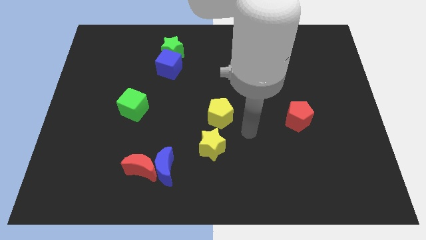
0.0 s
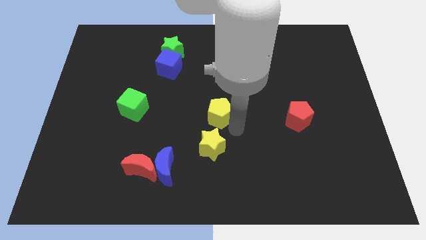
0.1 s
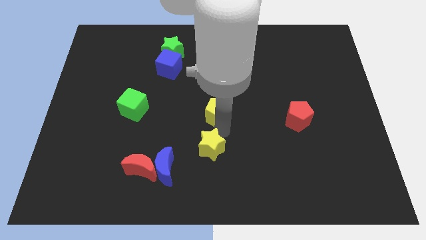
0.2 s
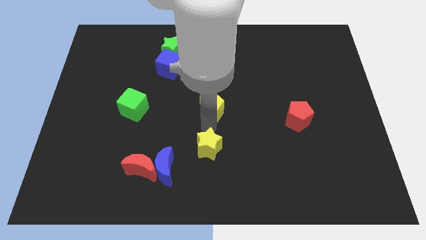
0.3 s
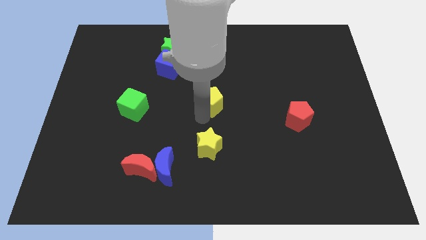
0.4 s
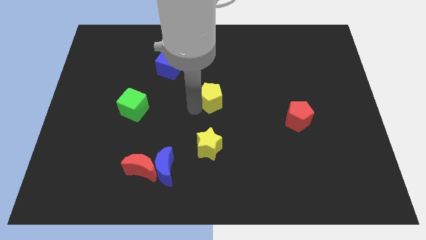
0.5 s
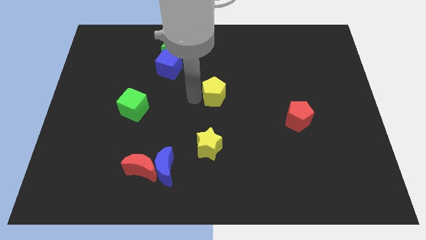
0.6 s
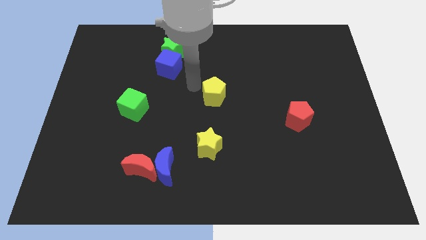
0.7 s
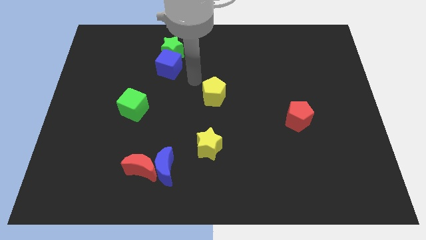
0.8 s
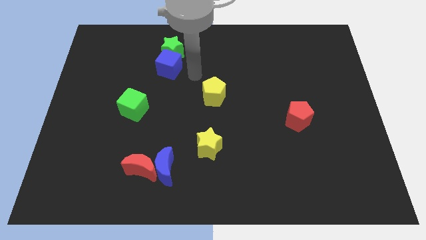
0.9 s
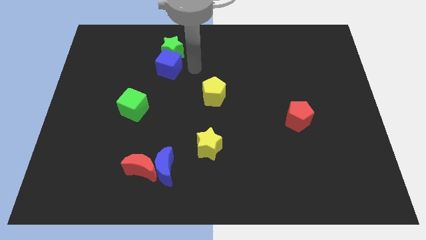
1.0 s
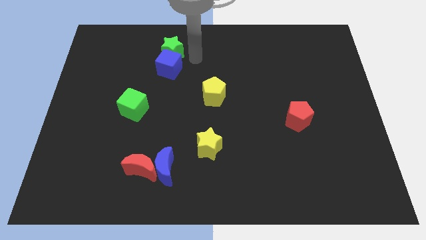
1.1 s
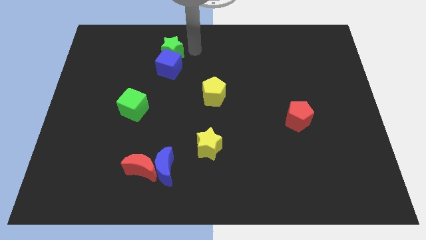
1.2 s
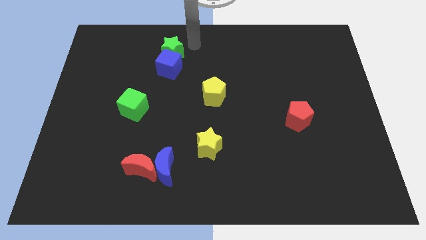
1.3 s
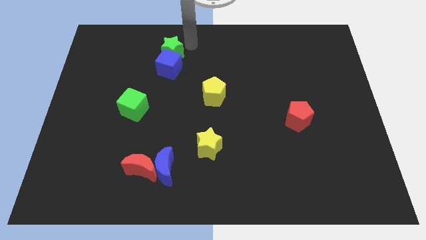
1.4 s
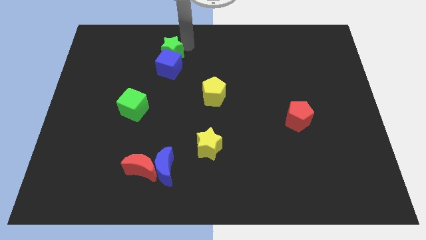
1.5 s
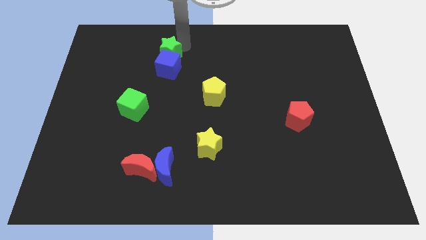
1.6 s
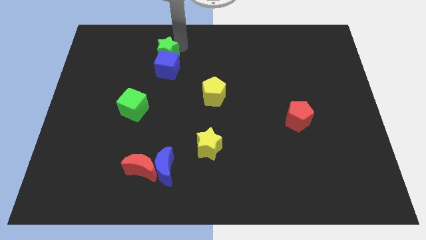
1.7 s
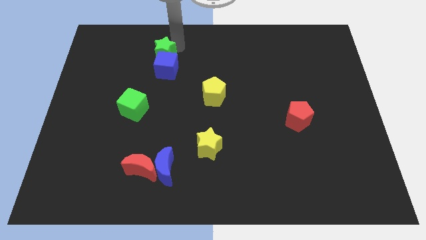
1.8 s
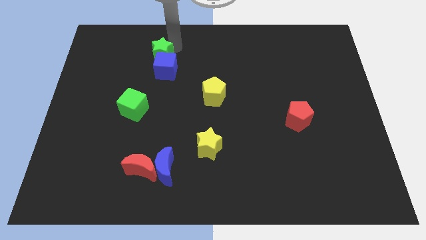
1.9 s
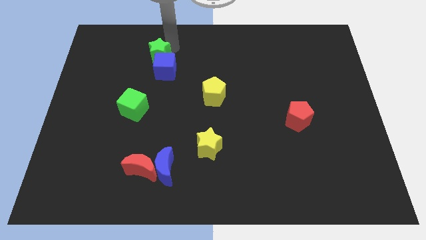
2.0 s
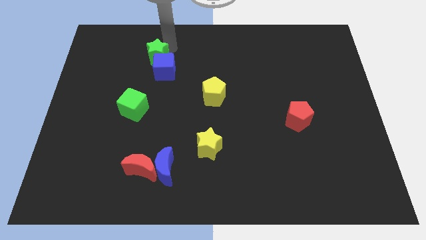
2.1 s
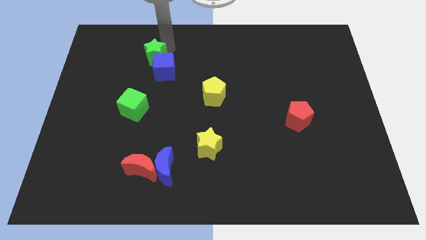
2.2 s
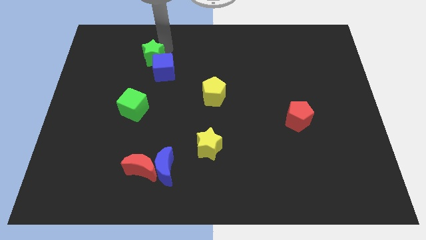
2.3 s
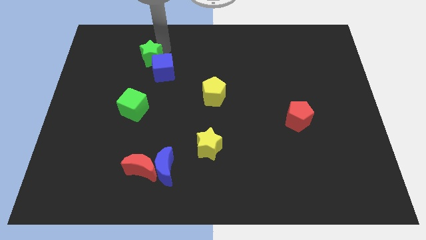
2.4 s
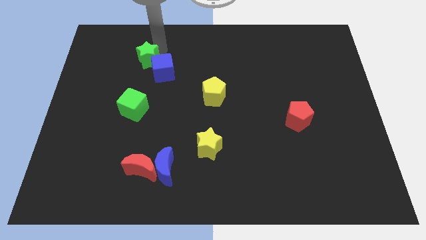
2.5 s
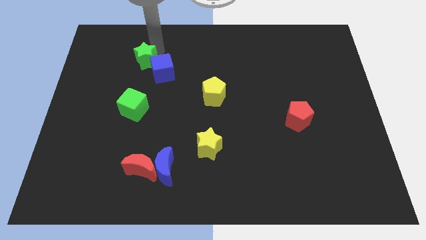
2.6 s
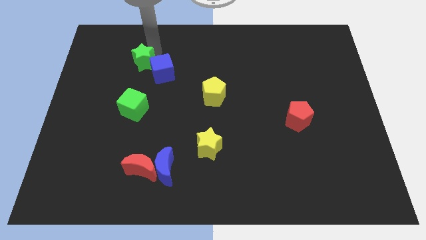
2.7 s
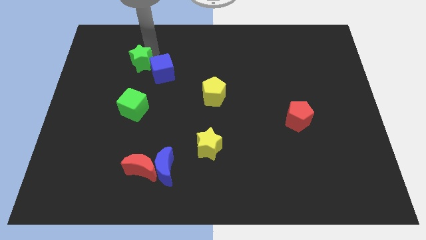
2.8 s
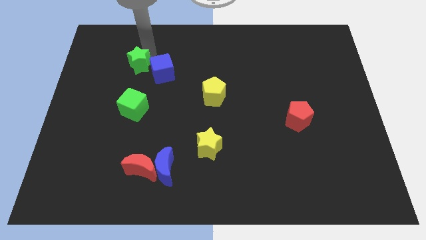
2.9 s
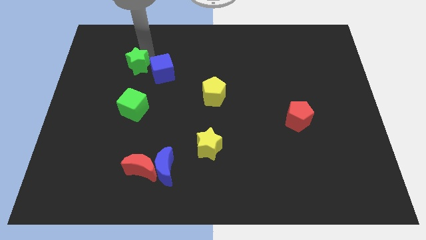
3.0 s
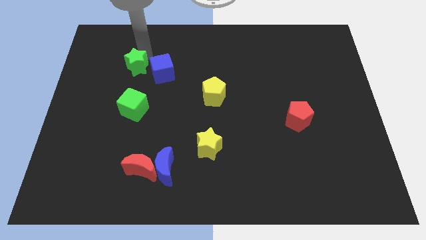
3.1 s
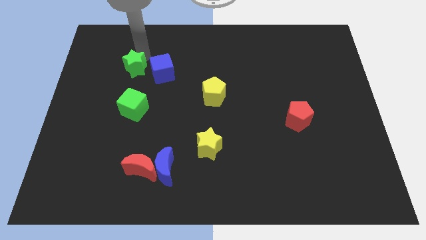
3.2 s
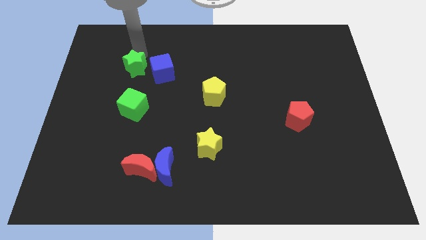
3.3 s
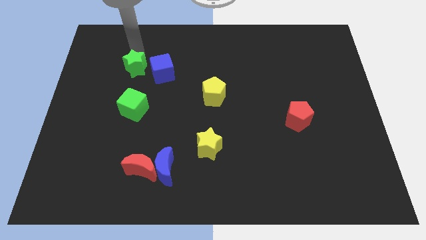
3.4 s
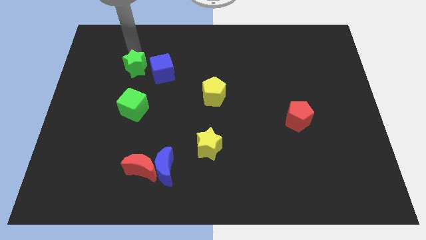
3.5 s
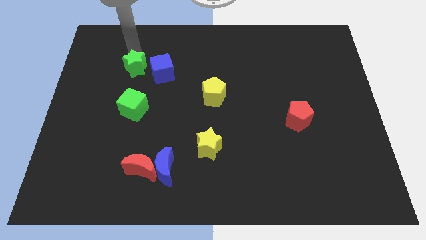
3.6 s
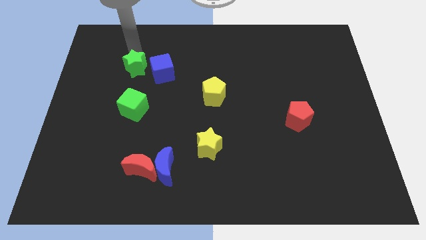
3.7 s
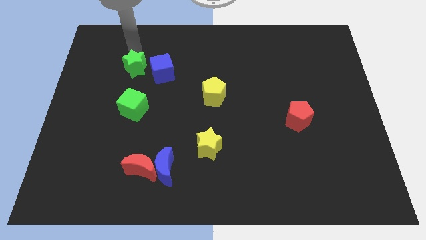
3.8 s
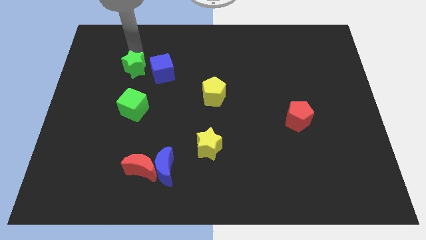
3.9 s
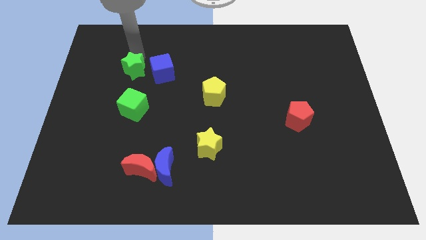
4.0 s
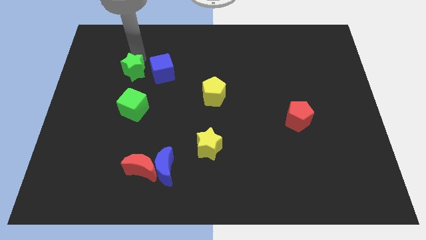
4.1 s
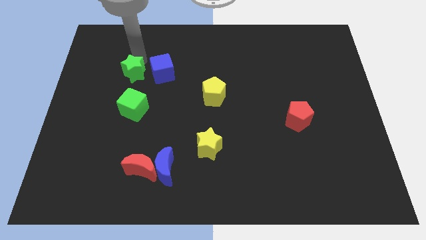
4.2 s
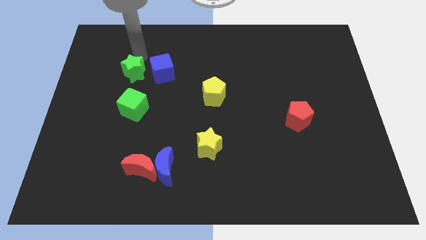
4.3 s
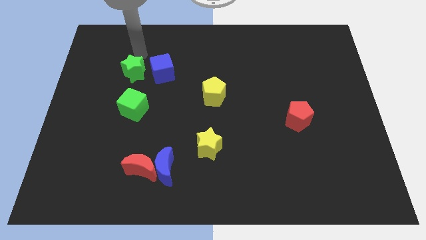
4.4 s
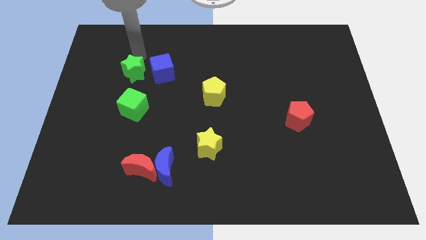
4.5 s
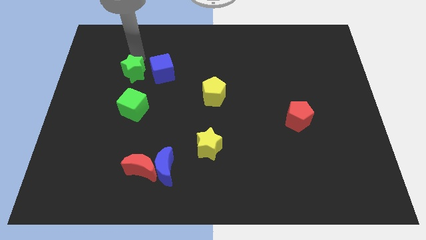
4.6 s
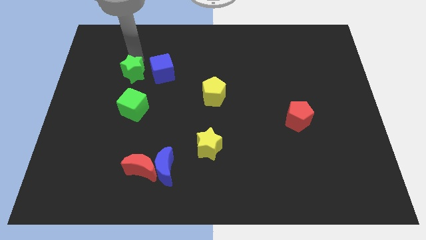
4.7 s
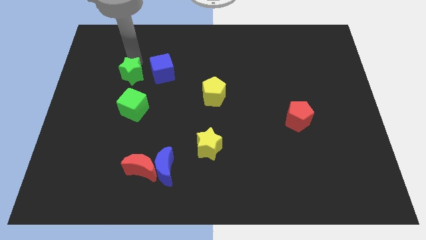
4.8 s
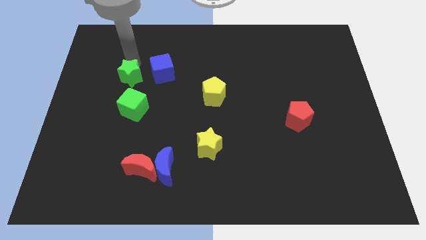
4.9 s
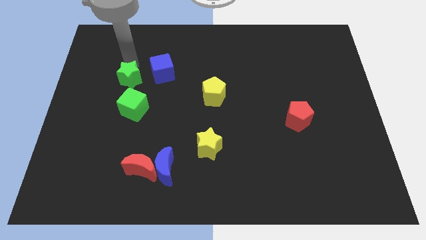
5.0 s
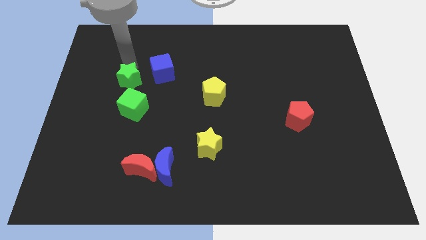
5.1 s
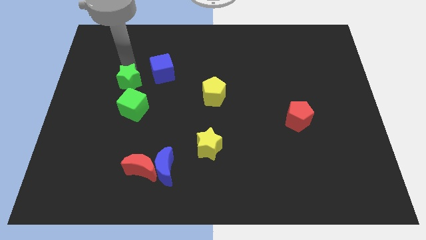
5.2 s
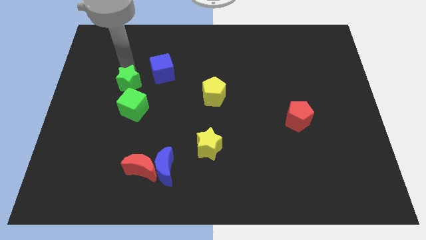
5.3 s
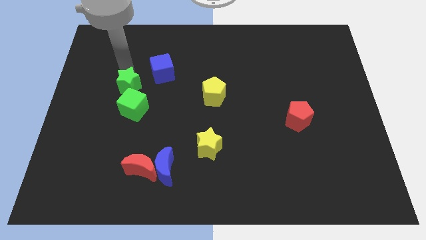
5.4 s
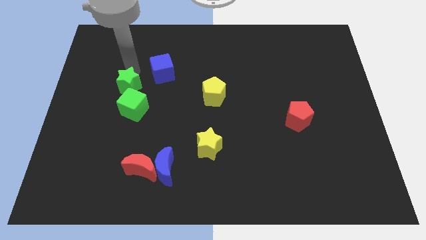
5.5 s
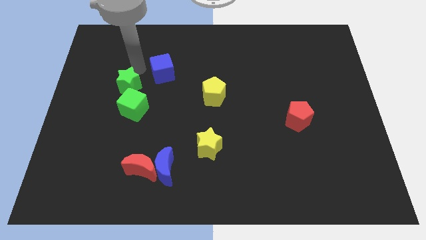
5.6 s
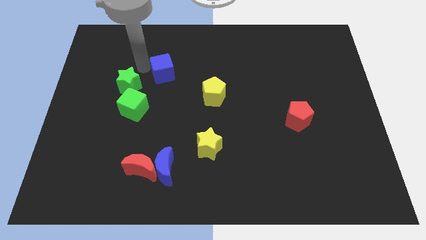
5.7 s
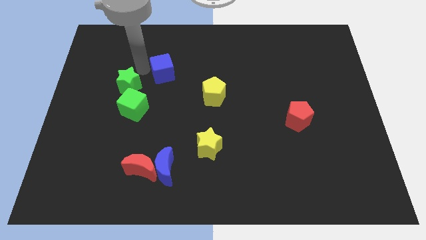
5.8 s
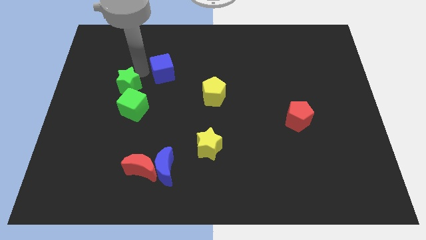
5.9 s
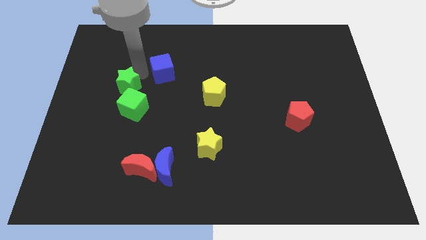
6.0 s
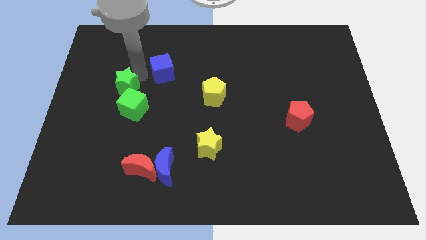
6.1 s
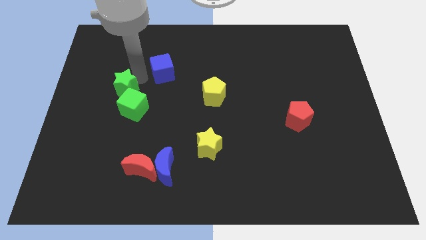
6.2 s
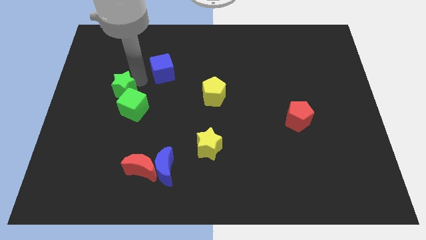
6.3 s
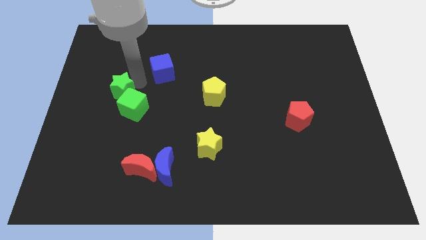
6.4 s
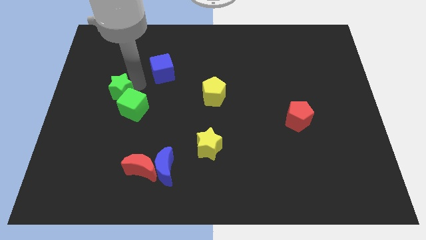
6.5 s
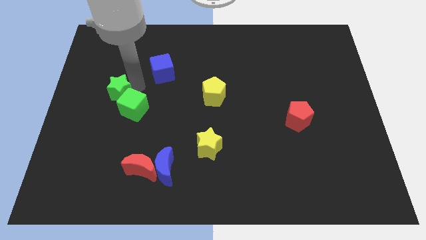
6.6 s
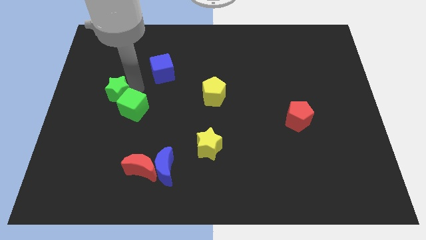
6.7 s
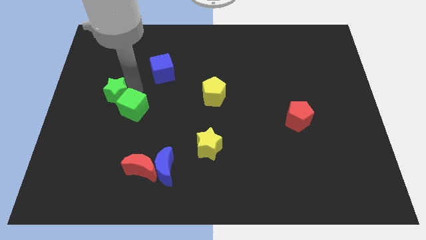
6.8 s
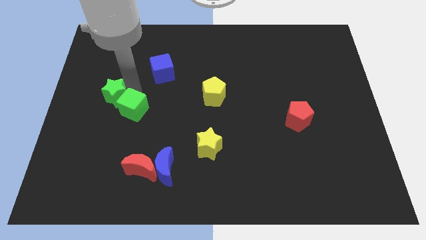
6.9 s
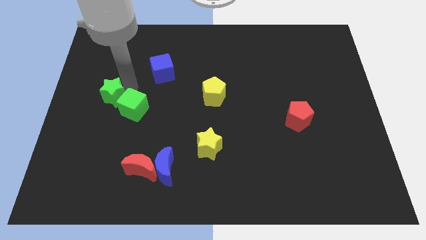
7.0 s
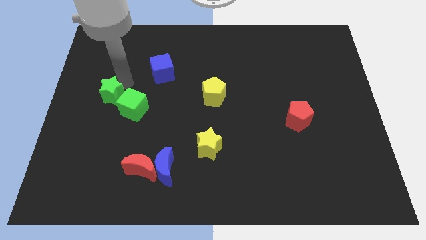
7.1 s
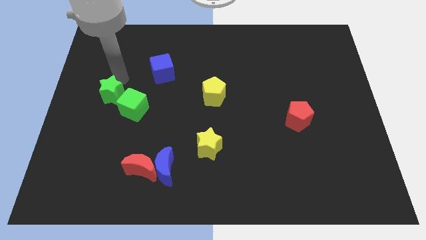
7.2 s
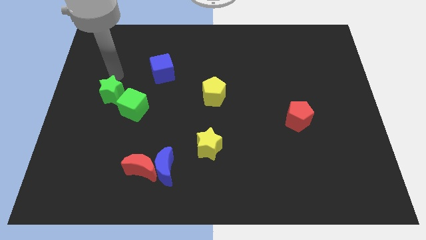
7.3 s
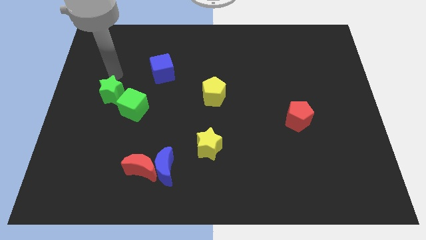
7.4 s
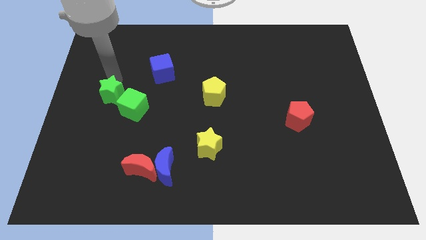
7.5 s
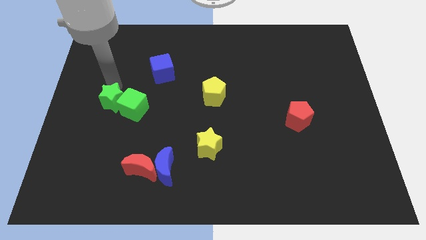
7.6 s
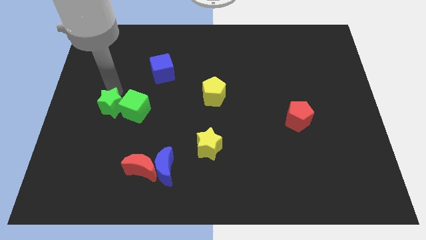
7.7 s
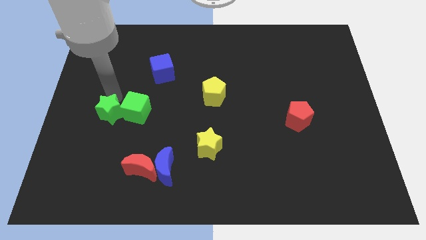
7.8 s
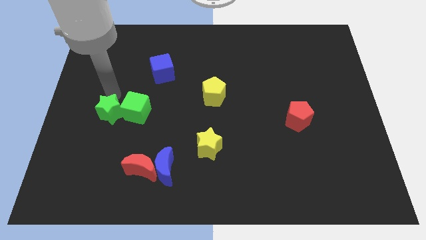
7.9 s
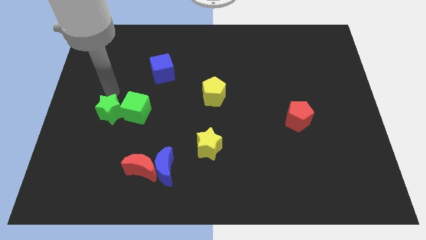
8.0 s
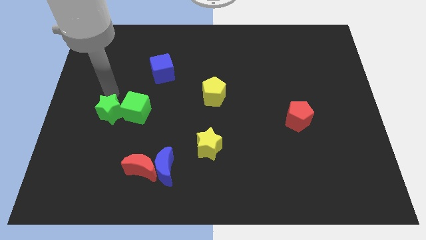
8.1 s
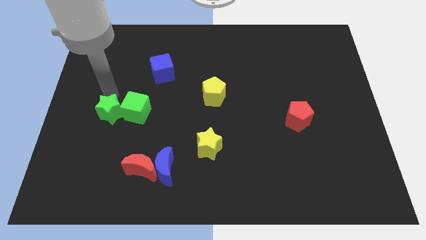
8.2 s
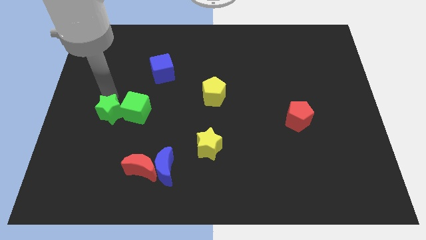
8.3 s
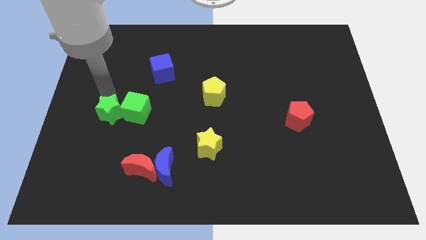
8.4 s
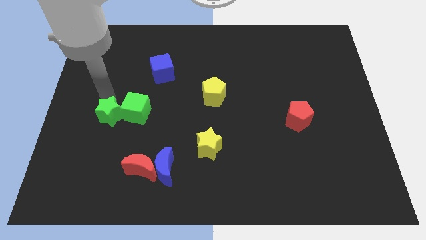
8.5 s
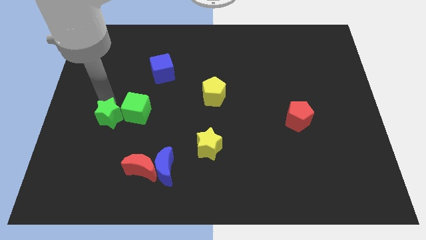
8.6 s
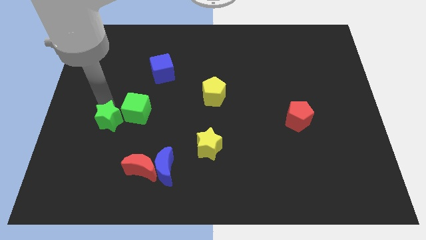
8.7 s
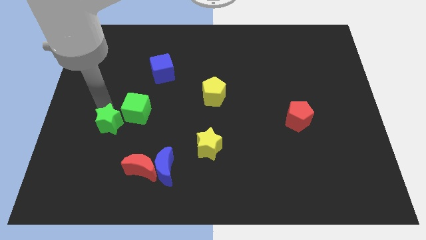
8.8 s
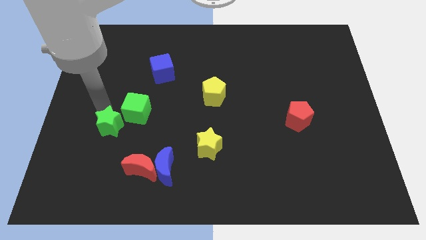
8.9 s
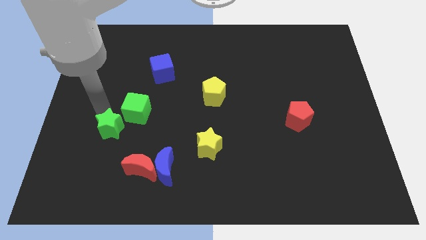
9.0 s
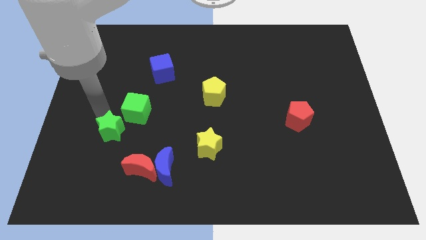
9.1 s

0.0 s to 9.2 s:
put the green star to the top left of the red moon
